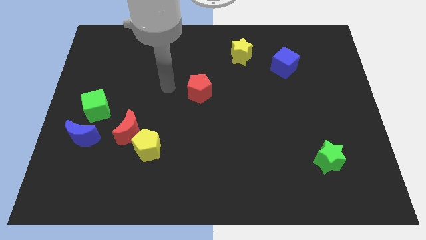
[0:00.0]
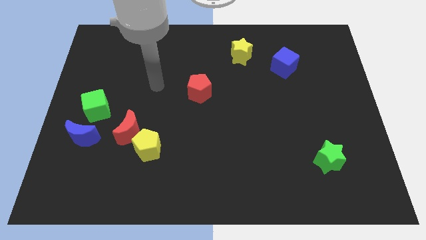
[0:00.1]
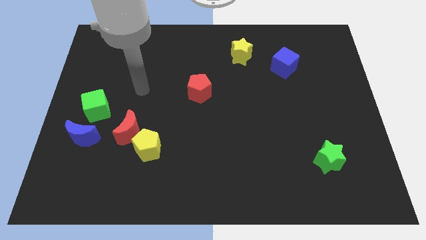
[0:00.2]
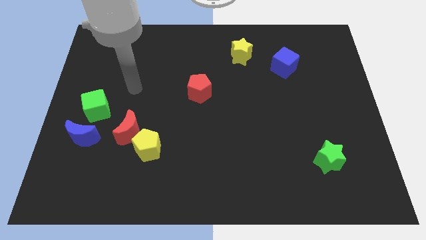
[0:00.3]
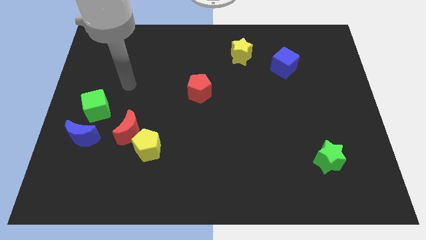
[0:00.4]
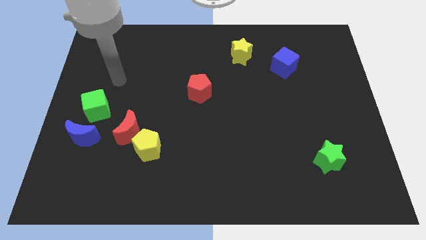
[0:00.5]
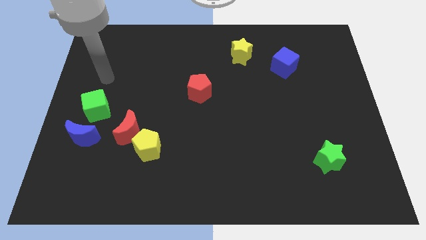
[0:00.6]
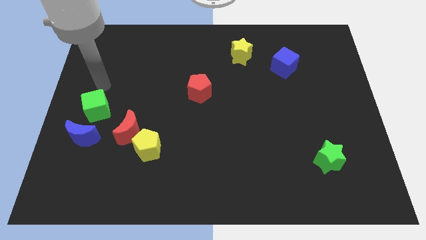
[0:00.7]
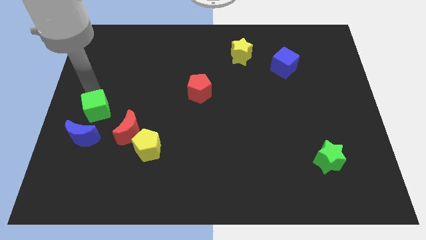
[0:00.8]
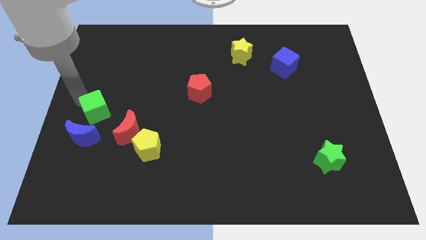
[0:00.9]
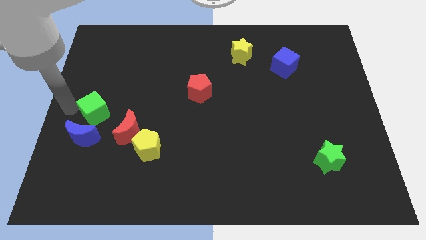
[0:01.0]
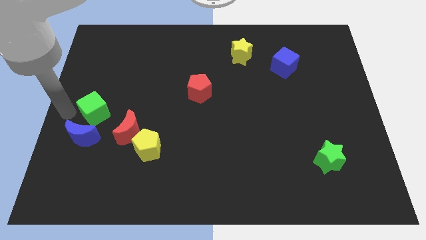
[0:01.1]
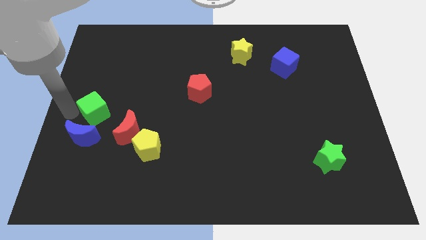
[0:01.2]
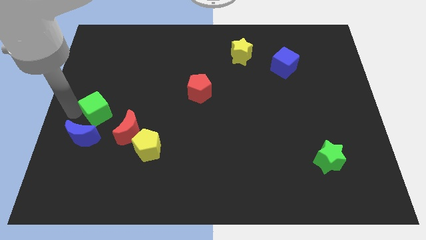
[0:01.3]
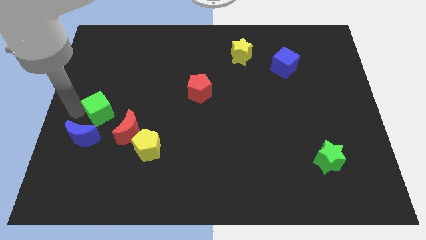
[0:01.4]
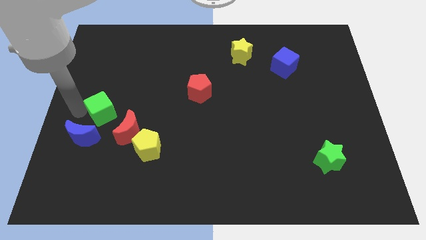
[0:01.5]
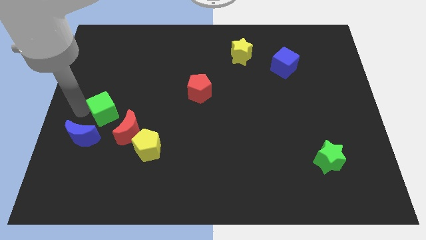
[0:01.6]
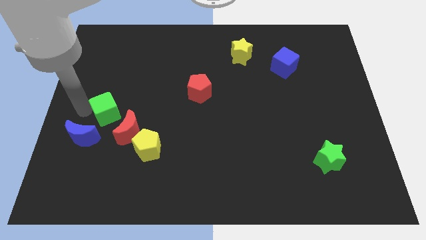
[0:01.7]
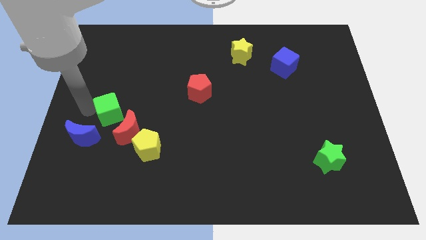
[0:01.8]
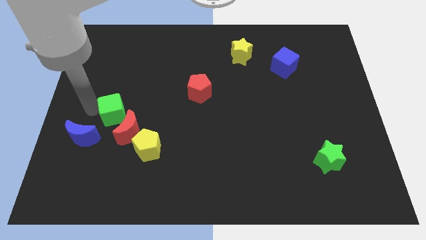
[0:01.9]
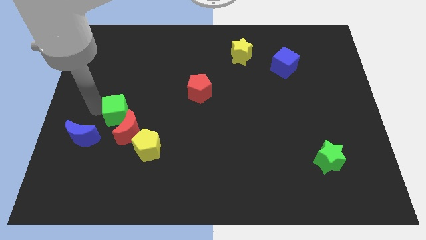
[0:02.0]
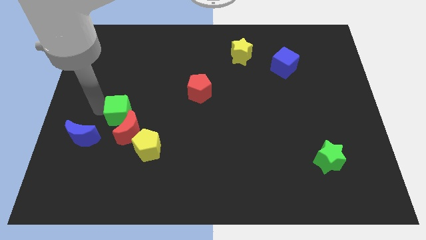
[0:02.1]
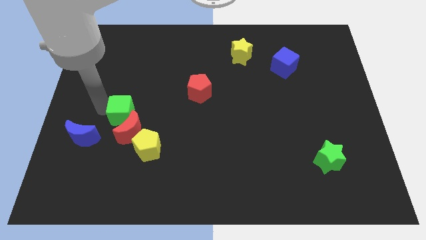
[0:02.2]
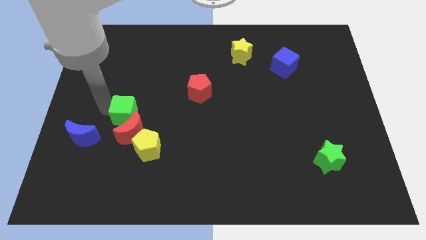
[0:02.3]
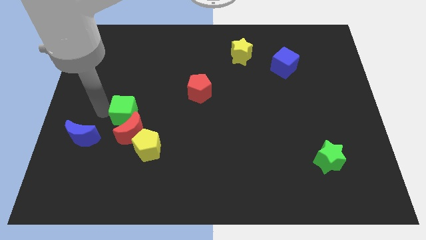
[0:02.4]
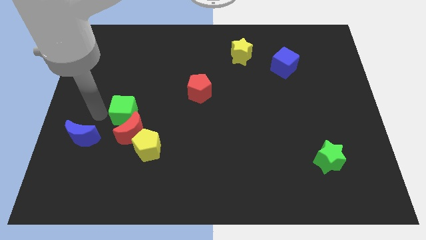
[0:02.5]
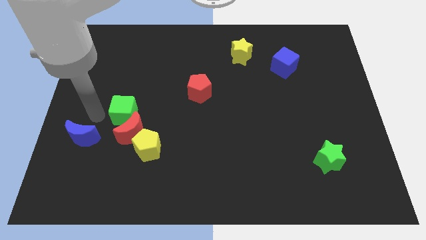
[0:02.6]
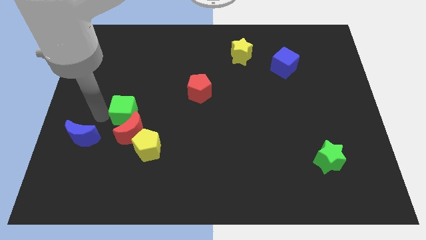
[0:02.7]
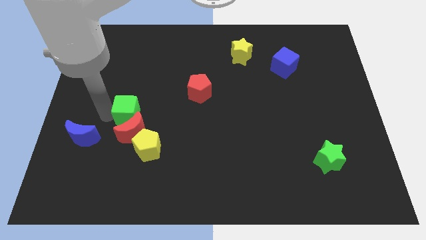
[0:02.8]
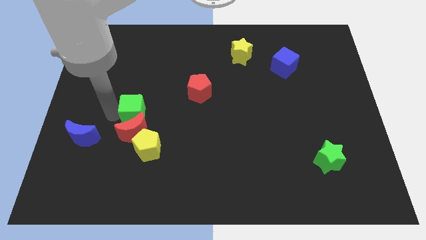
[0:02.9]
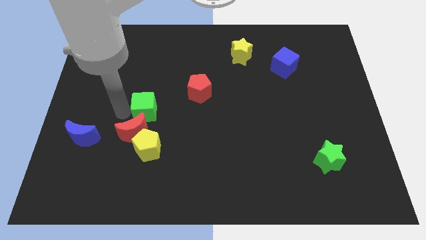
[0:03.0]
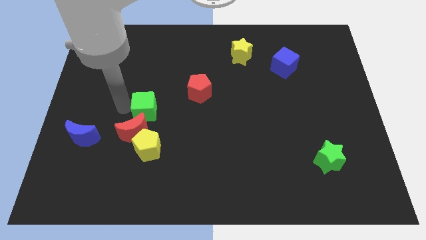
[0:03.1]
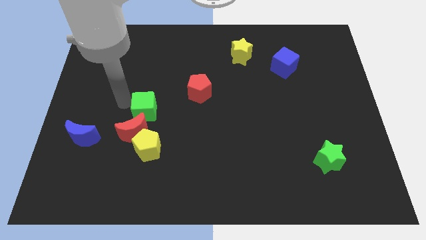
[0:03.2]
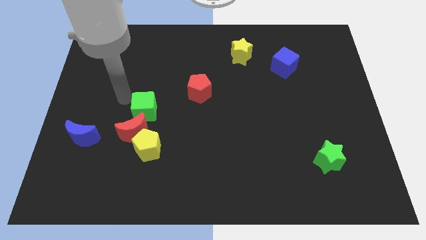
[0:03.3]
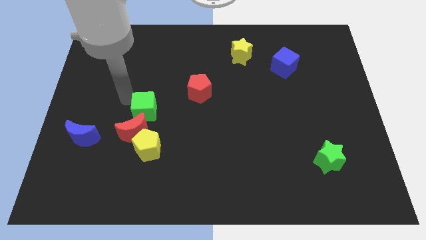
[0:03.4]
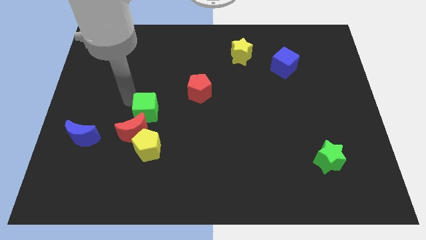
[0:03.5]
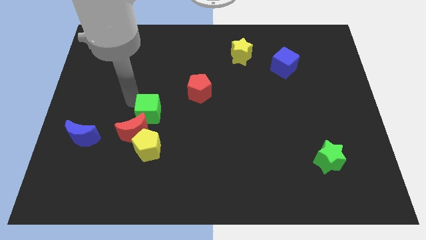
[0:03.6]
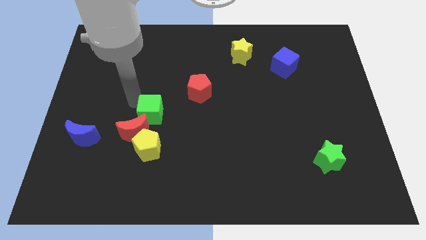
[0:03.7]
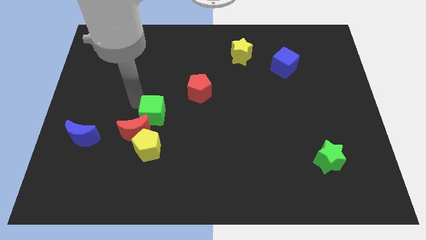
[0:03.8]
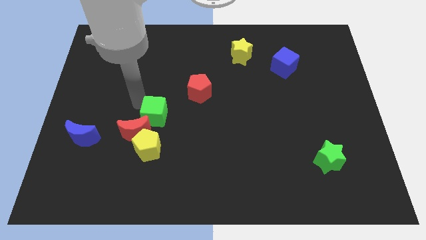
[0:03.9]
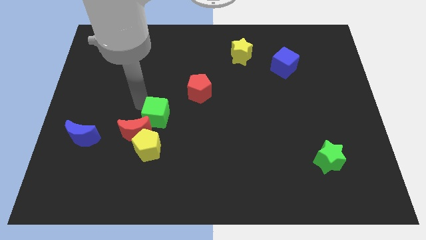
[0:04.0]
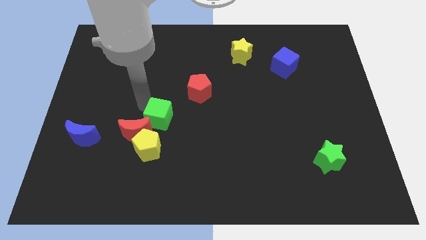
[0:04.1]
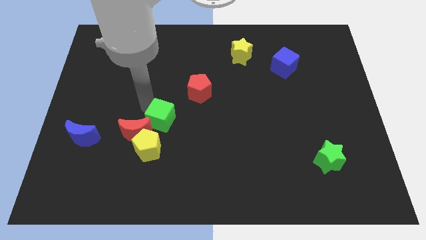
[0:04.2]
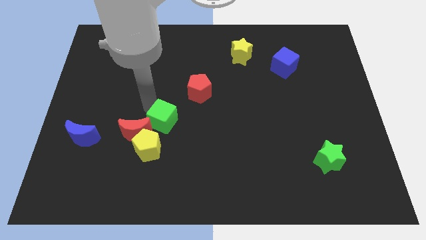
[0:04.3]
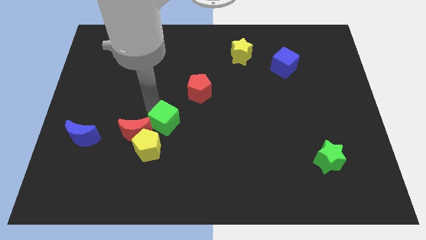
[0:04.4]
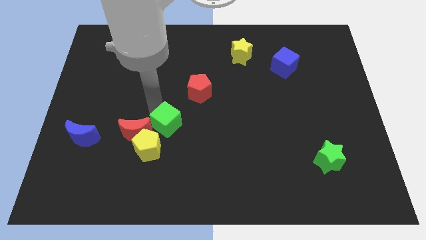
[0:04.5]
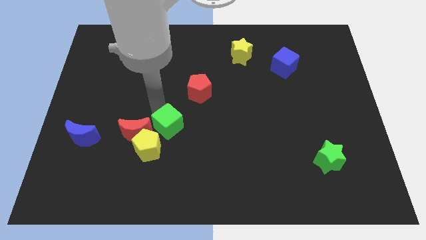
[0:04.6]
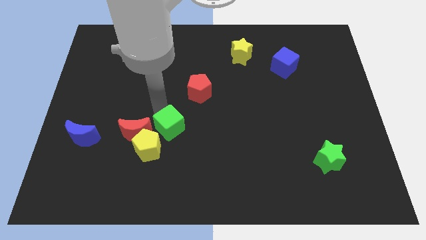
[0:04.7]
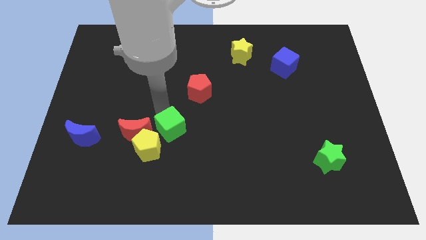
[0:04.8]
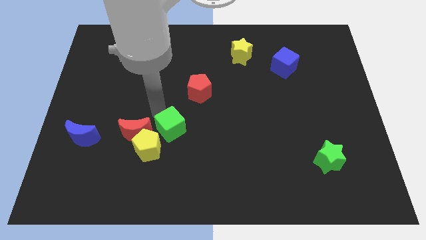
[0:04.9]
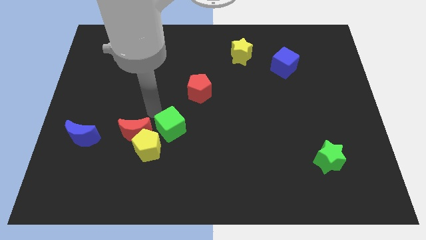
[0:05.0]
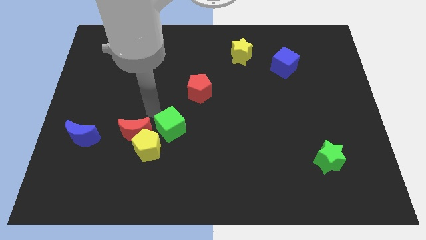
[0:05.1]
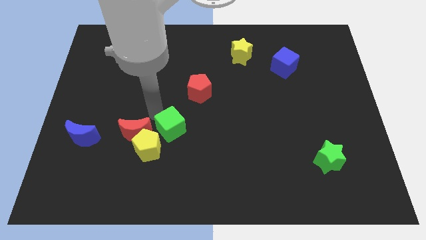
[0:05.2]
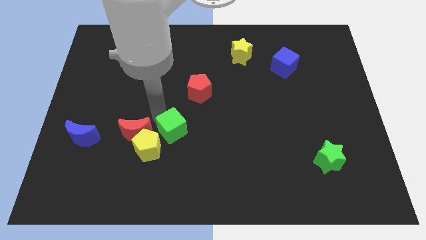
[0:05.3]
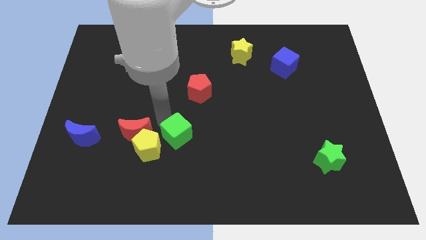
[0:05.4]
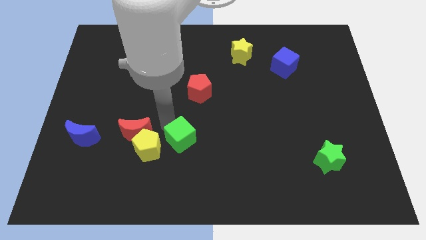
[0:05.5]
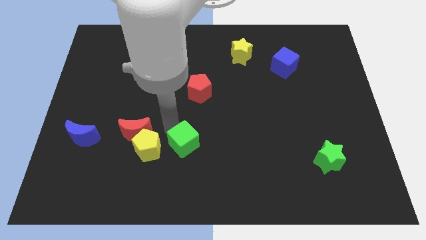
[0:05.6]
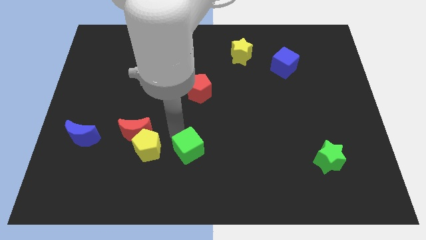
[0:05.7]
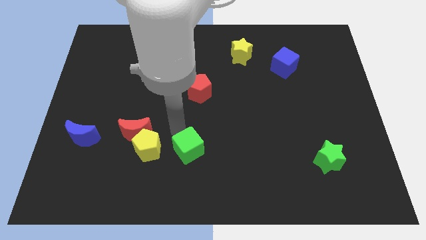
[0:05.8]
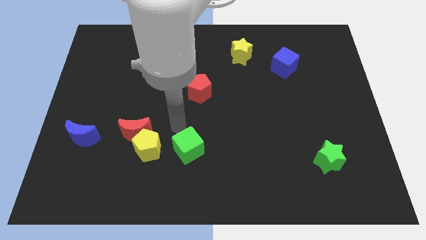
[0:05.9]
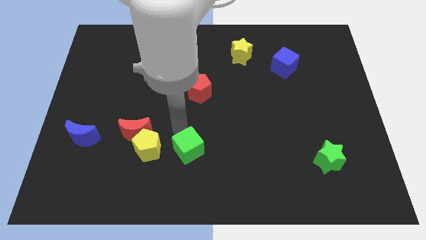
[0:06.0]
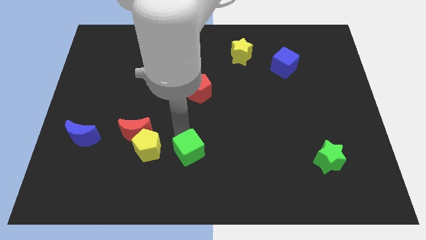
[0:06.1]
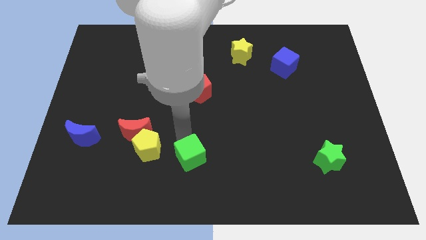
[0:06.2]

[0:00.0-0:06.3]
slide the green cube to the bottom

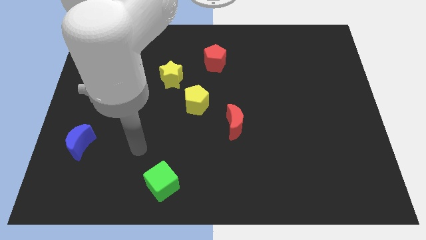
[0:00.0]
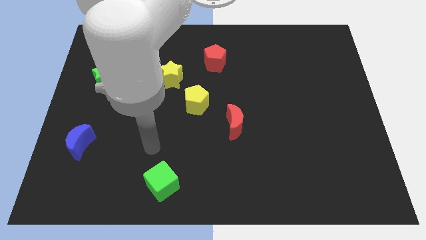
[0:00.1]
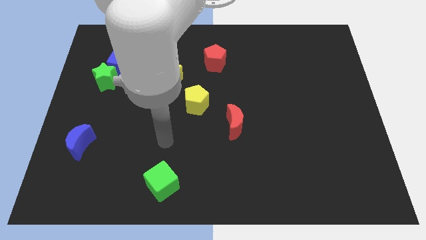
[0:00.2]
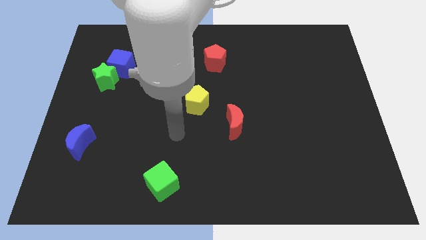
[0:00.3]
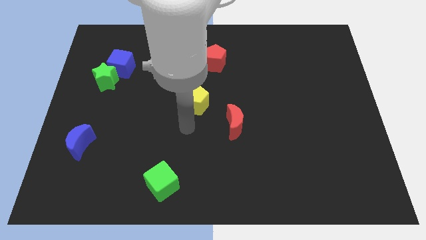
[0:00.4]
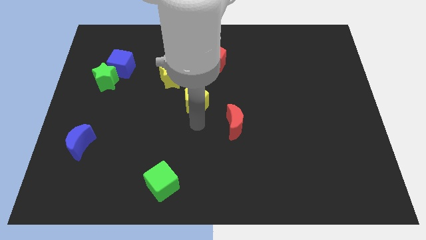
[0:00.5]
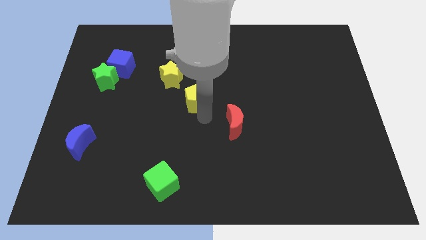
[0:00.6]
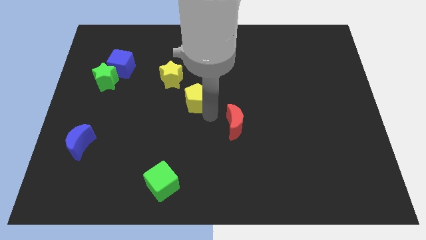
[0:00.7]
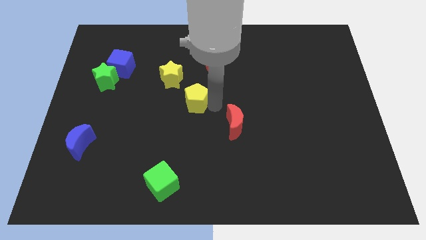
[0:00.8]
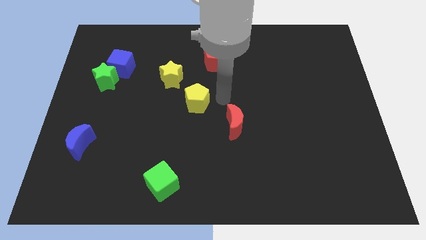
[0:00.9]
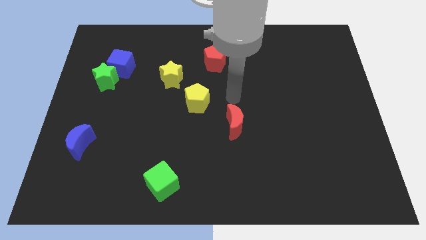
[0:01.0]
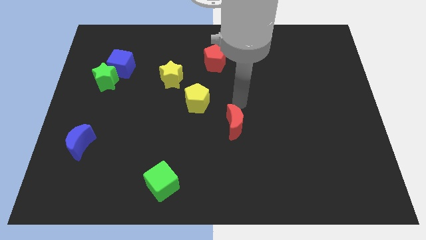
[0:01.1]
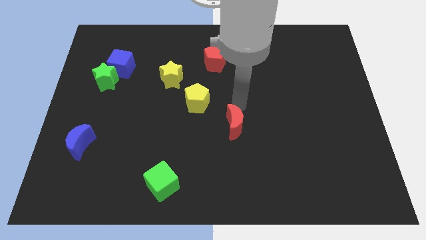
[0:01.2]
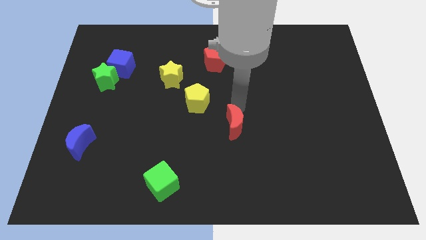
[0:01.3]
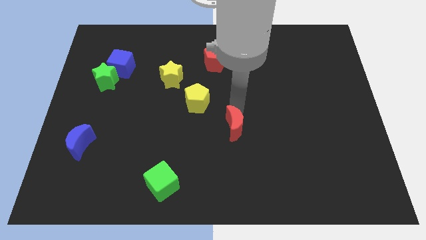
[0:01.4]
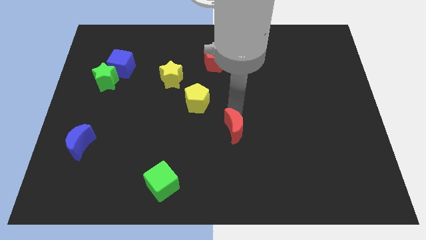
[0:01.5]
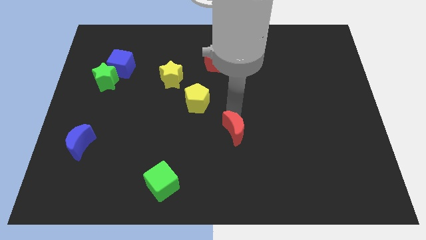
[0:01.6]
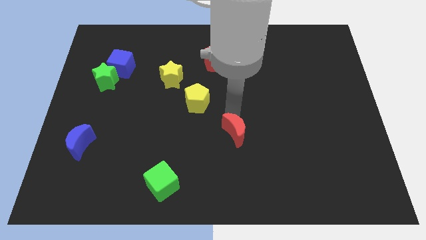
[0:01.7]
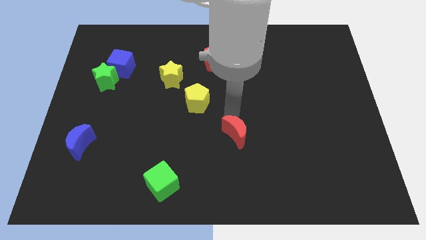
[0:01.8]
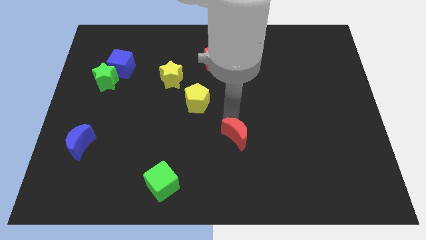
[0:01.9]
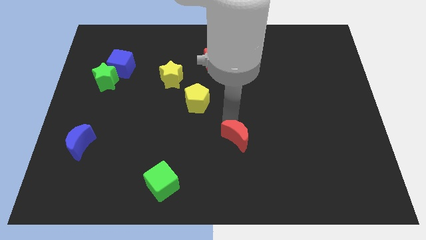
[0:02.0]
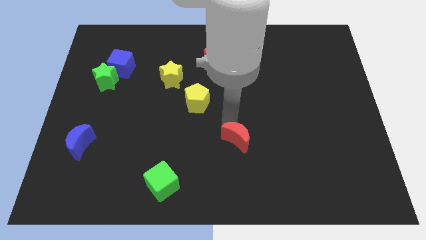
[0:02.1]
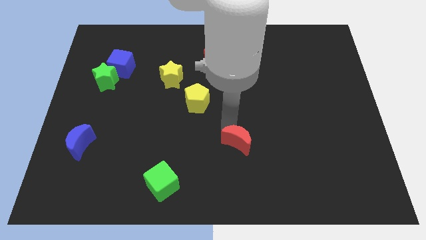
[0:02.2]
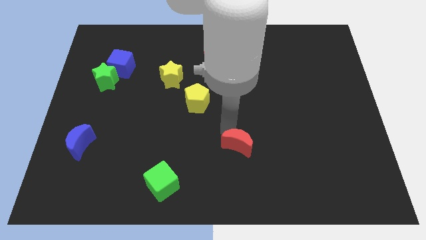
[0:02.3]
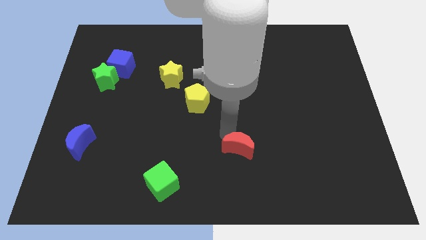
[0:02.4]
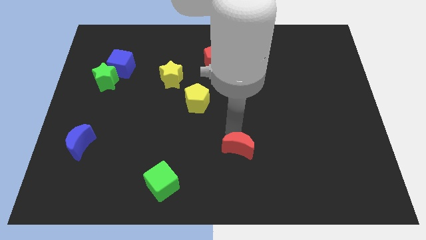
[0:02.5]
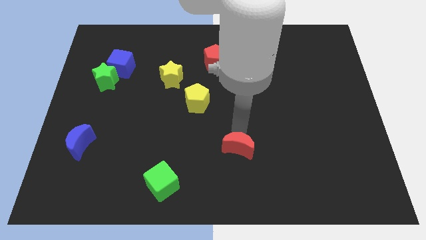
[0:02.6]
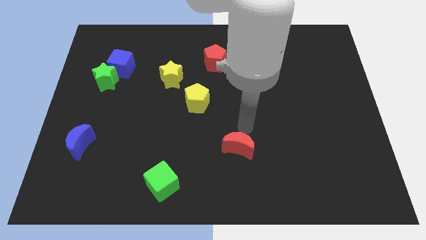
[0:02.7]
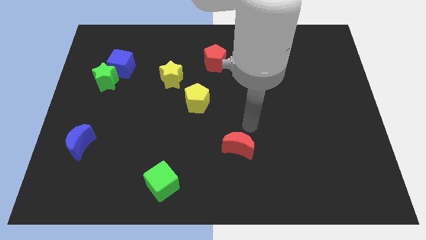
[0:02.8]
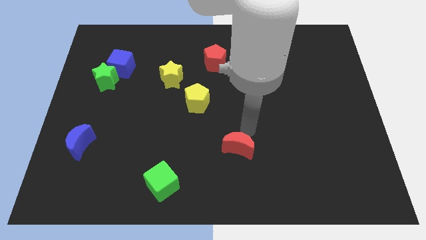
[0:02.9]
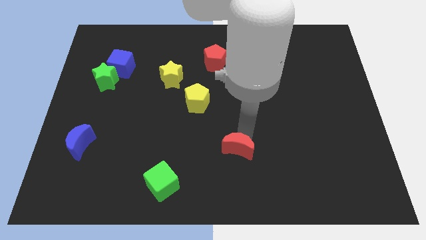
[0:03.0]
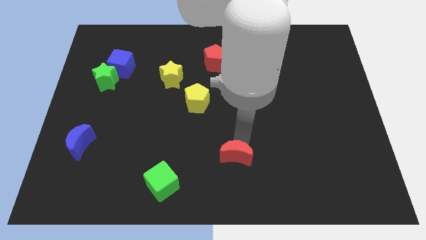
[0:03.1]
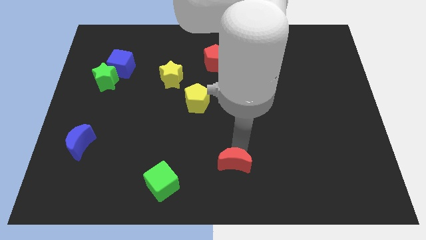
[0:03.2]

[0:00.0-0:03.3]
move the red moon to the bottom
